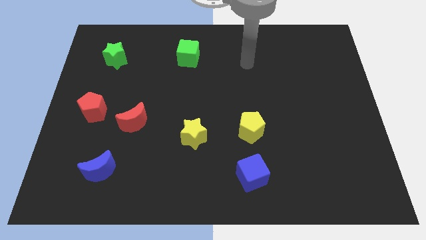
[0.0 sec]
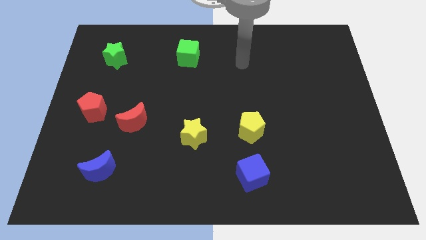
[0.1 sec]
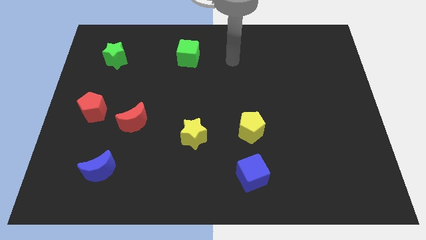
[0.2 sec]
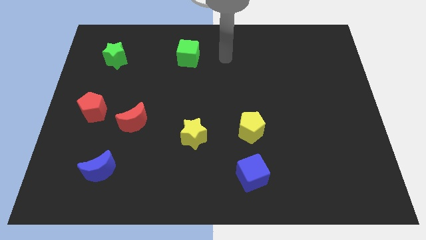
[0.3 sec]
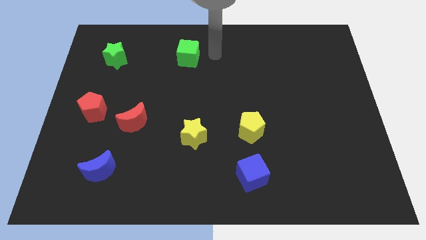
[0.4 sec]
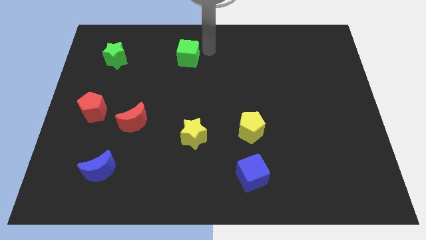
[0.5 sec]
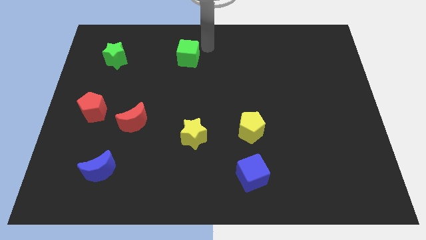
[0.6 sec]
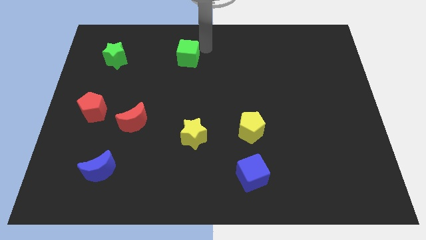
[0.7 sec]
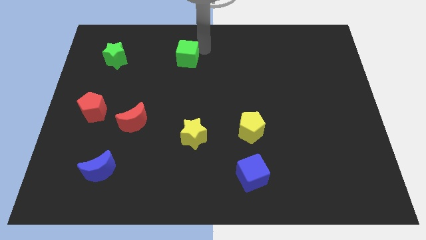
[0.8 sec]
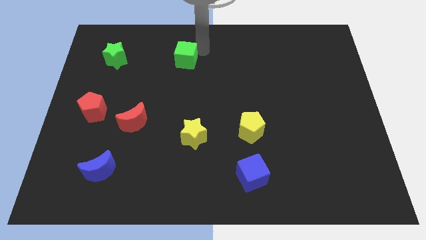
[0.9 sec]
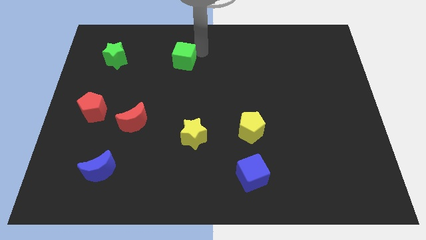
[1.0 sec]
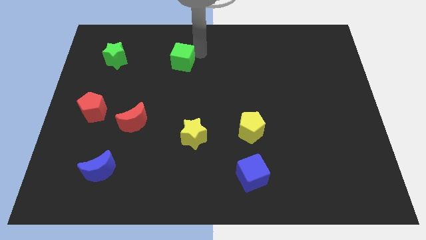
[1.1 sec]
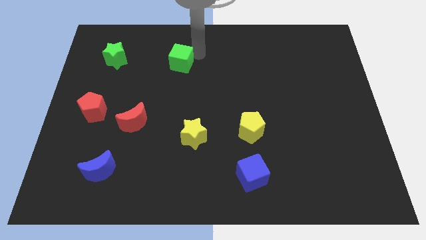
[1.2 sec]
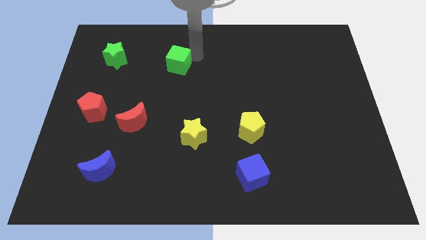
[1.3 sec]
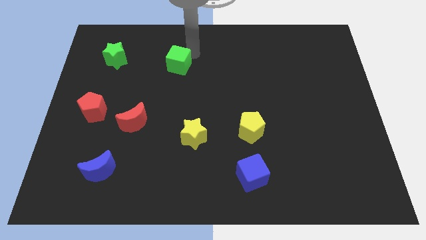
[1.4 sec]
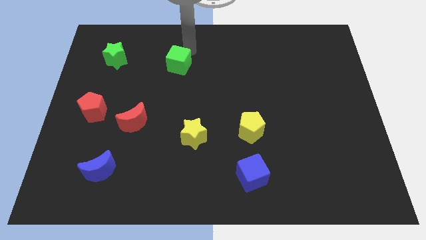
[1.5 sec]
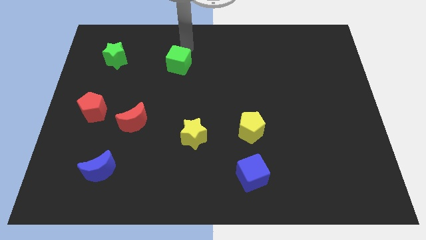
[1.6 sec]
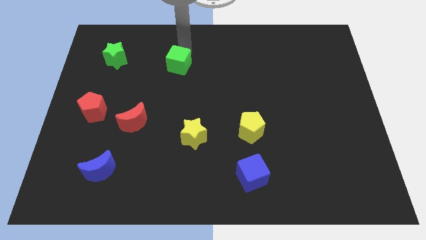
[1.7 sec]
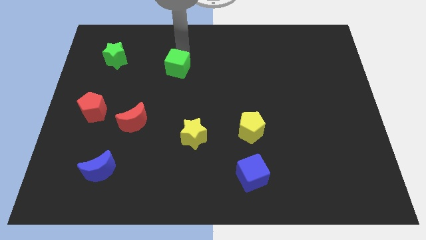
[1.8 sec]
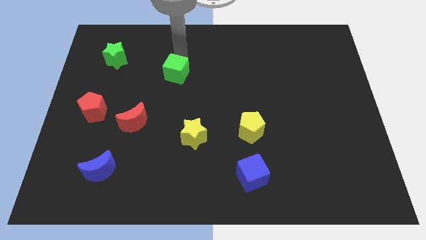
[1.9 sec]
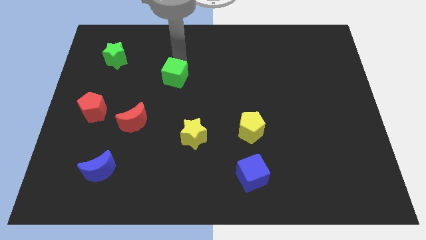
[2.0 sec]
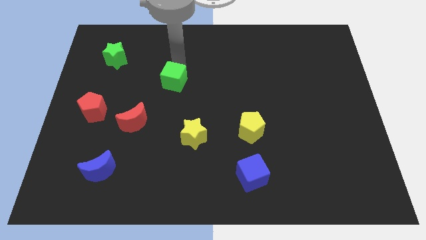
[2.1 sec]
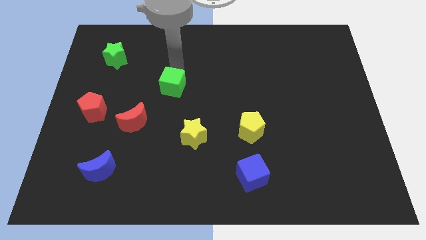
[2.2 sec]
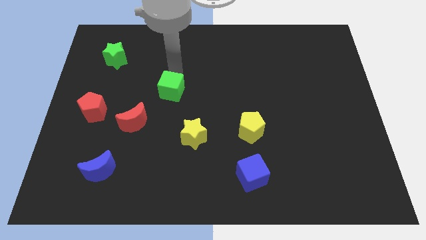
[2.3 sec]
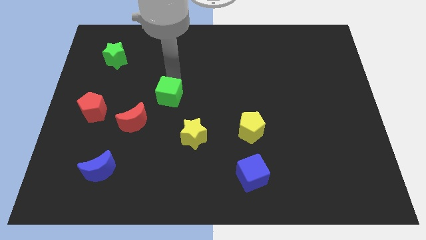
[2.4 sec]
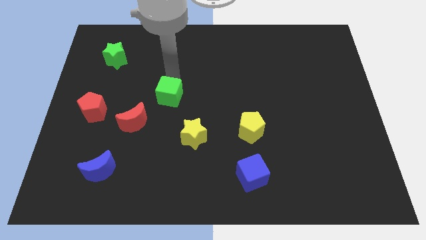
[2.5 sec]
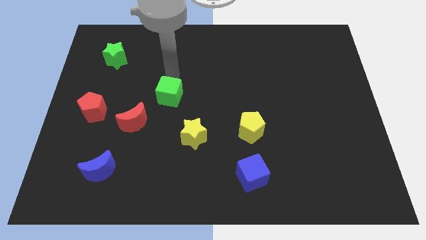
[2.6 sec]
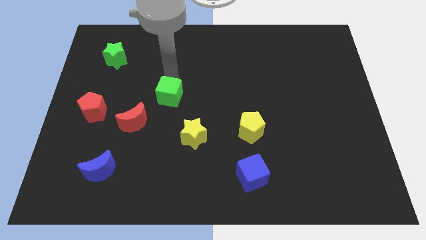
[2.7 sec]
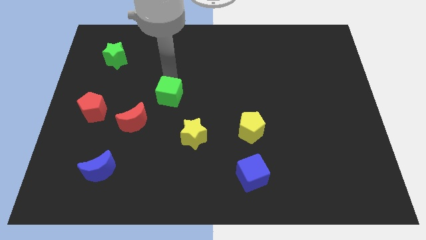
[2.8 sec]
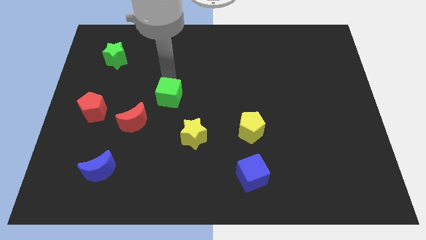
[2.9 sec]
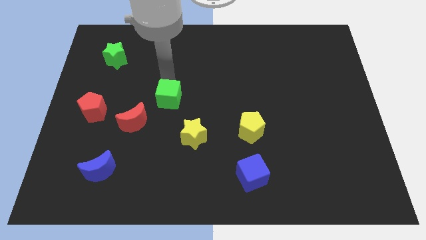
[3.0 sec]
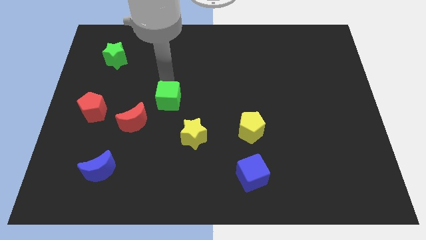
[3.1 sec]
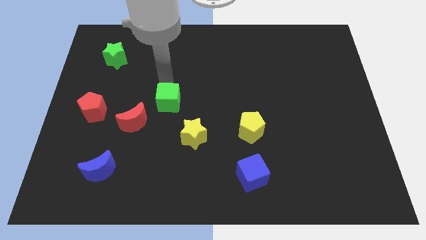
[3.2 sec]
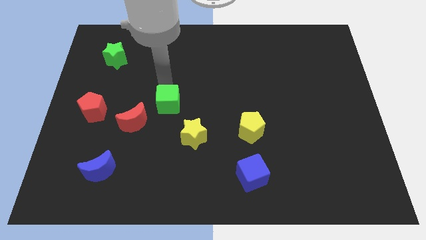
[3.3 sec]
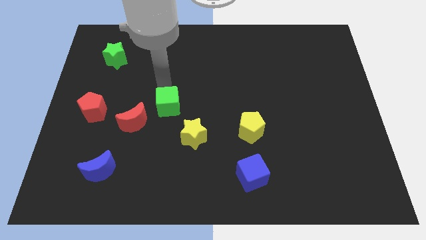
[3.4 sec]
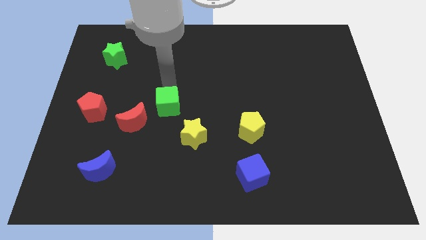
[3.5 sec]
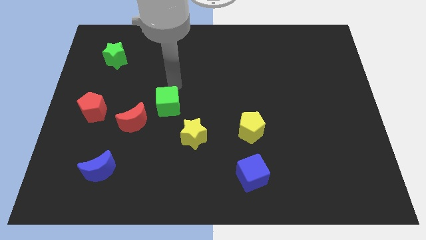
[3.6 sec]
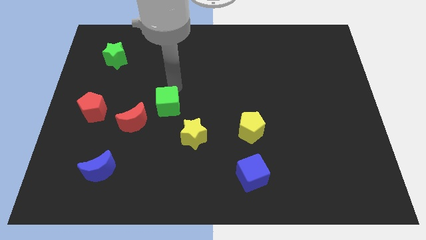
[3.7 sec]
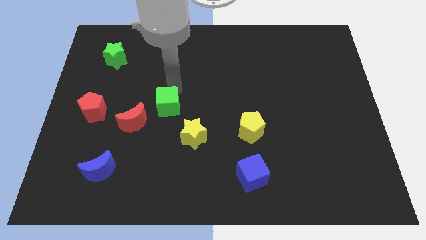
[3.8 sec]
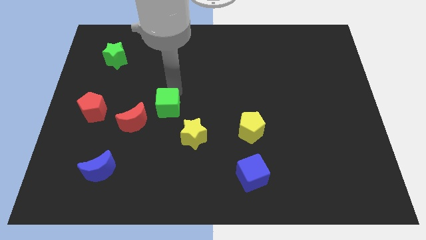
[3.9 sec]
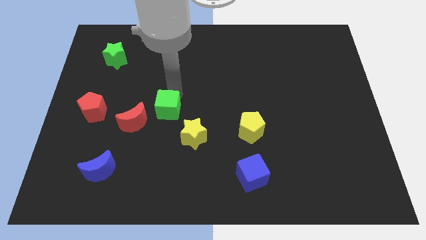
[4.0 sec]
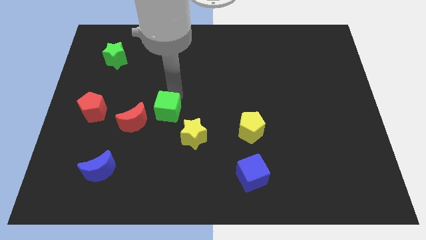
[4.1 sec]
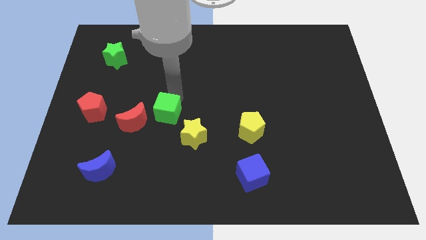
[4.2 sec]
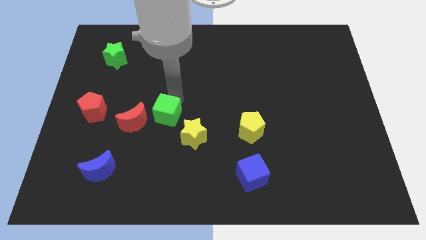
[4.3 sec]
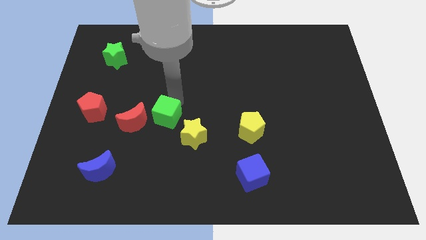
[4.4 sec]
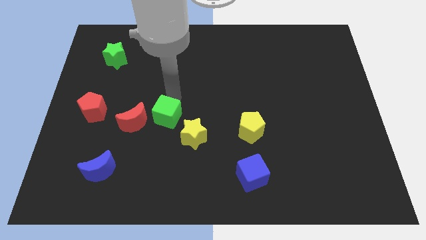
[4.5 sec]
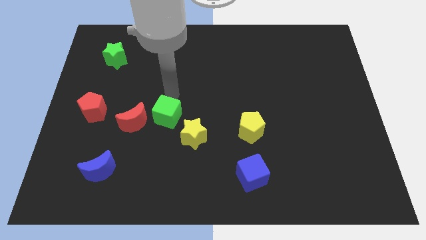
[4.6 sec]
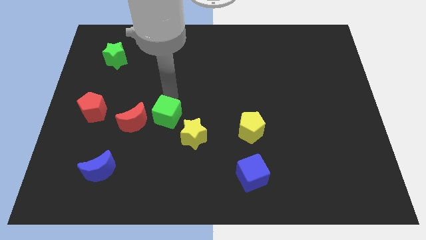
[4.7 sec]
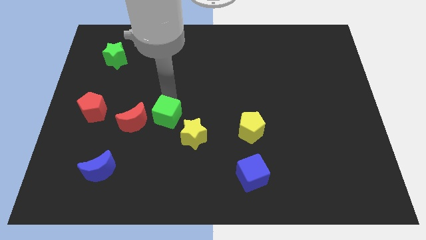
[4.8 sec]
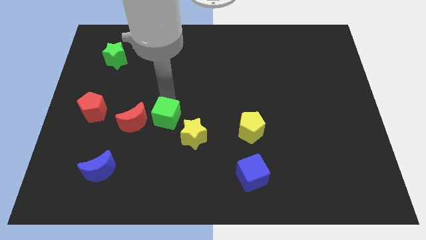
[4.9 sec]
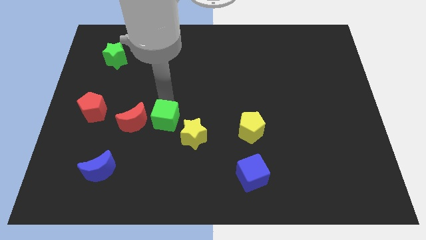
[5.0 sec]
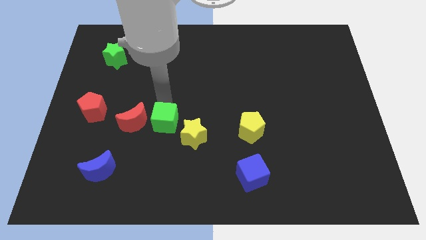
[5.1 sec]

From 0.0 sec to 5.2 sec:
slide the green cube downwards

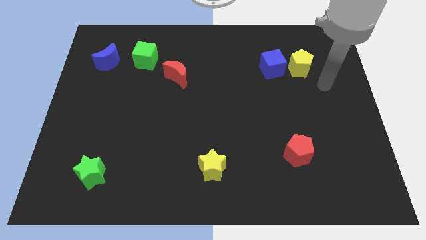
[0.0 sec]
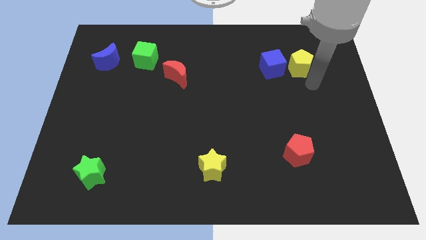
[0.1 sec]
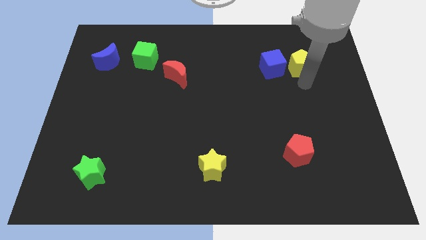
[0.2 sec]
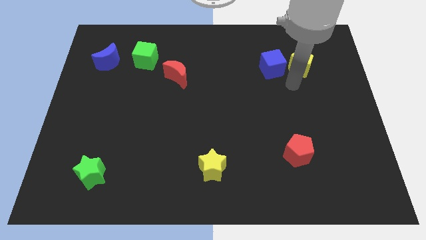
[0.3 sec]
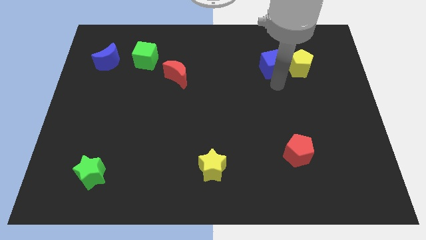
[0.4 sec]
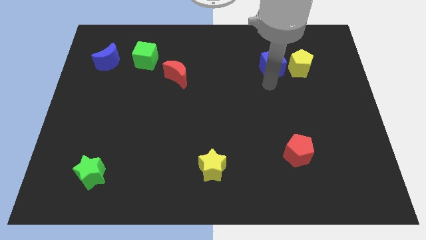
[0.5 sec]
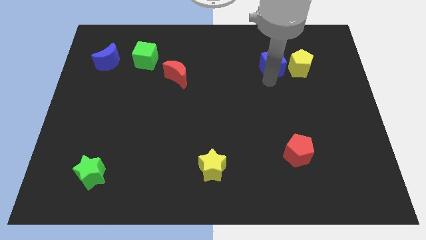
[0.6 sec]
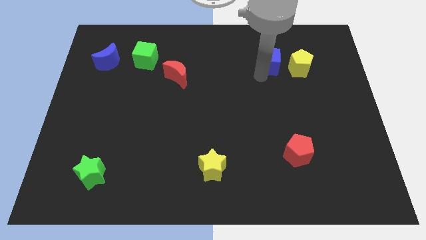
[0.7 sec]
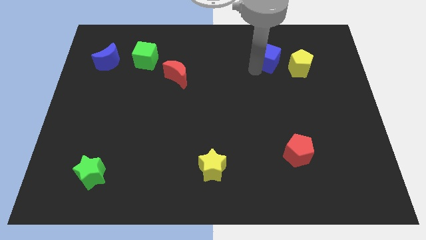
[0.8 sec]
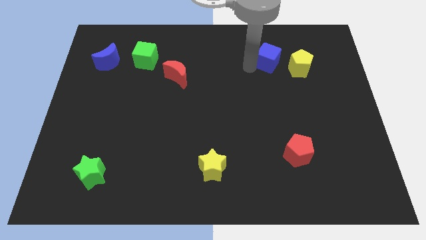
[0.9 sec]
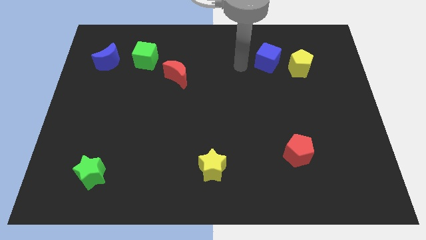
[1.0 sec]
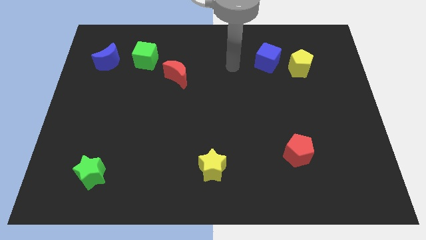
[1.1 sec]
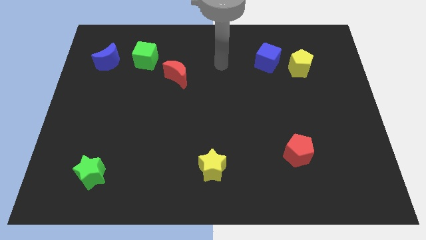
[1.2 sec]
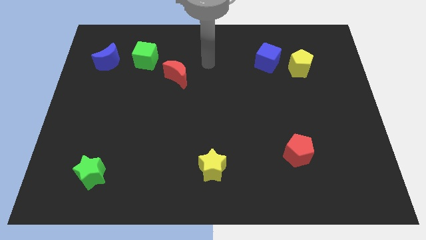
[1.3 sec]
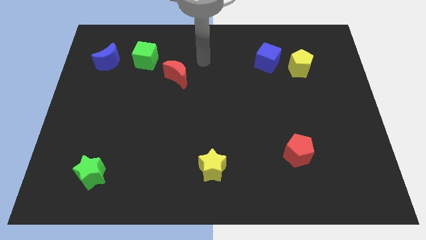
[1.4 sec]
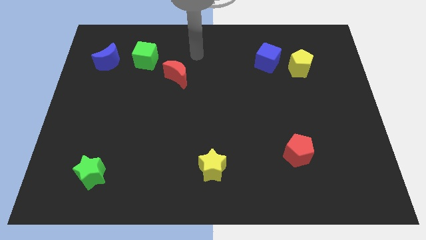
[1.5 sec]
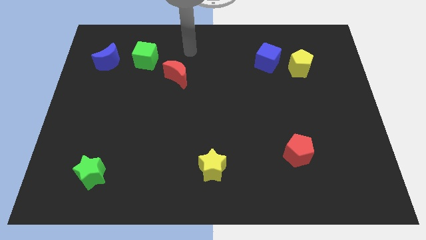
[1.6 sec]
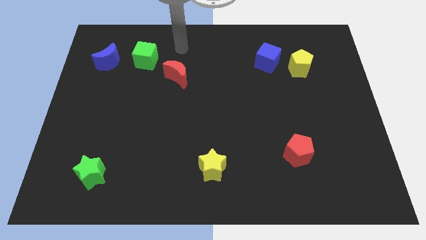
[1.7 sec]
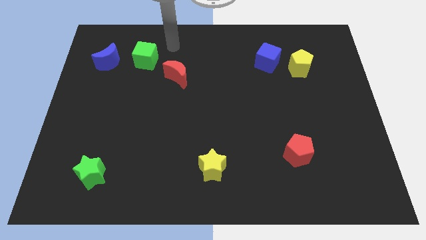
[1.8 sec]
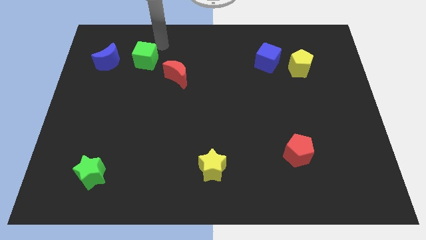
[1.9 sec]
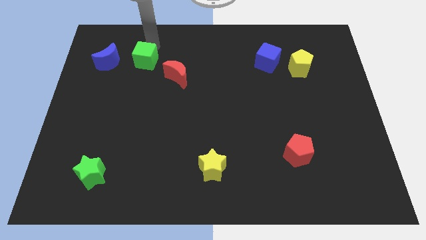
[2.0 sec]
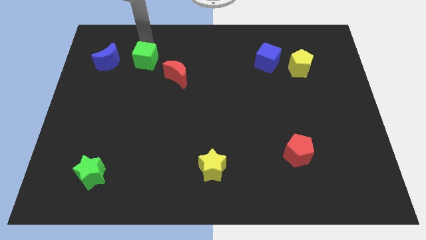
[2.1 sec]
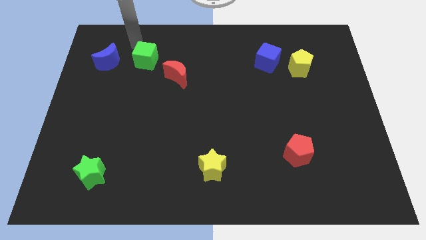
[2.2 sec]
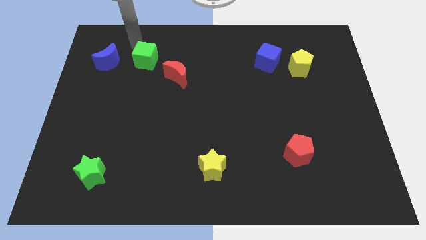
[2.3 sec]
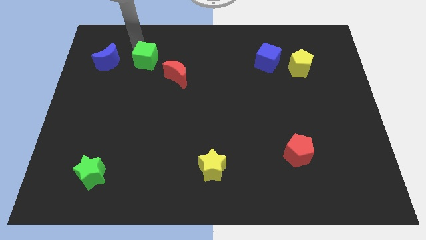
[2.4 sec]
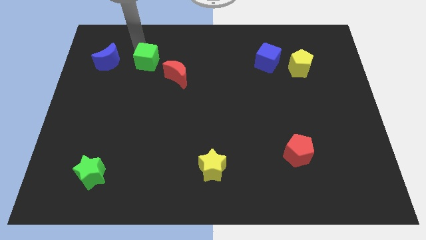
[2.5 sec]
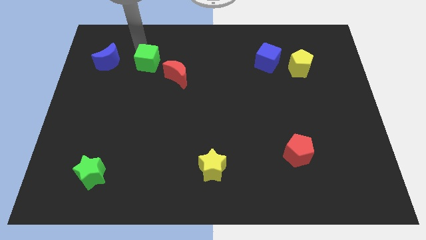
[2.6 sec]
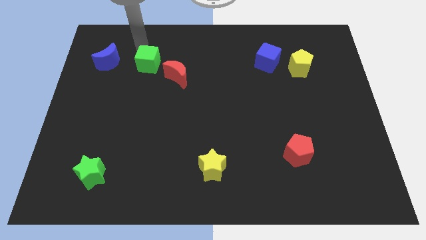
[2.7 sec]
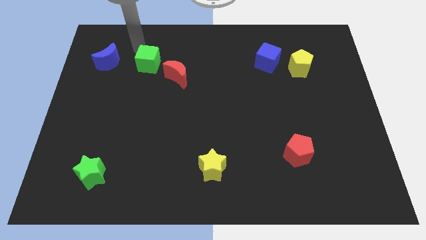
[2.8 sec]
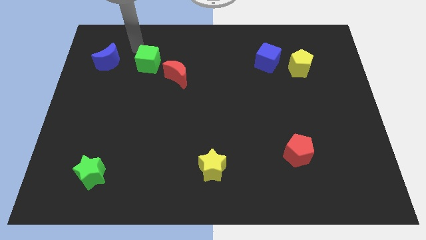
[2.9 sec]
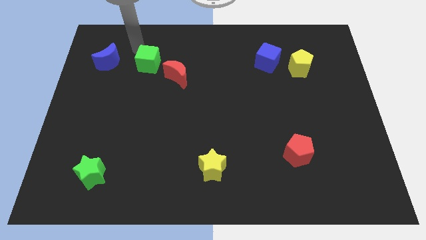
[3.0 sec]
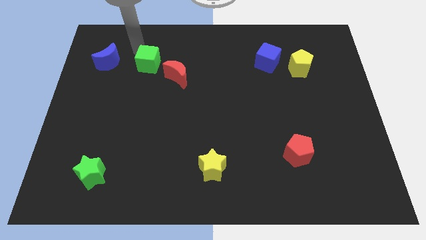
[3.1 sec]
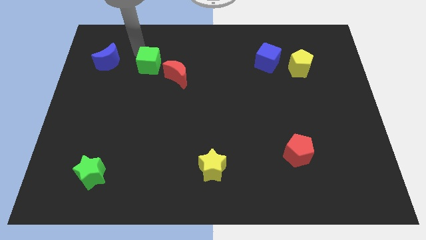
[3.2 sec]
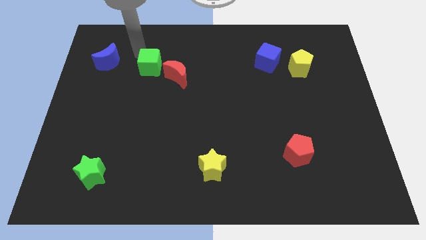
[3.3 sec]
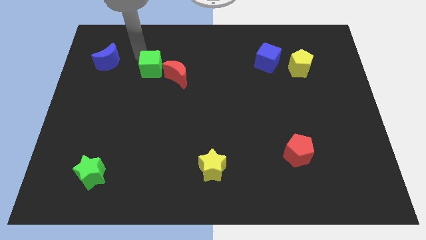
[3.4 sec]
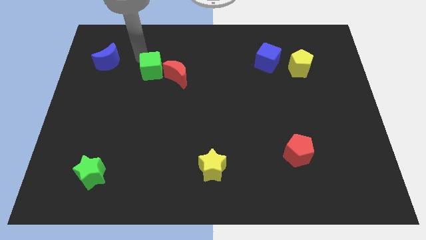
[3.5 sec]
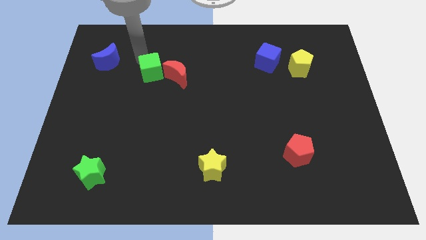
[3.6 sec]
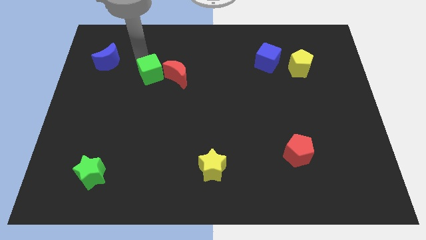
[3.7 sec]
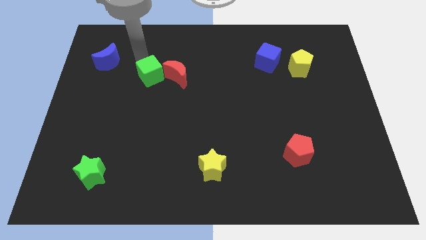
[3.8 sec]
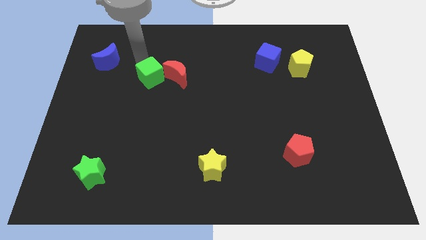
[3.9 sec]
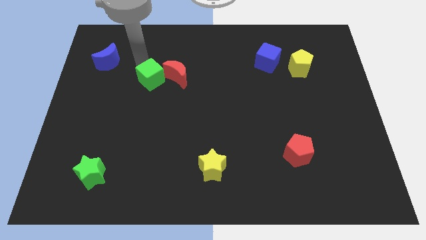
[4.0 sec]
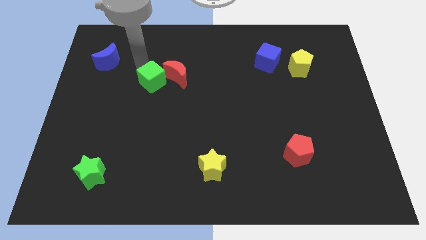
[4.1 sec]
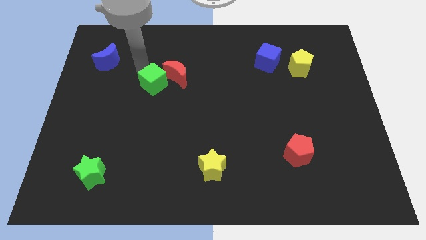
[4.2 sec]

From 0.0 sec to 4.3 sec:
move the green cube somewhat diagonally down and right
